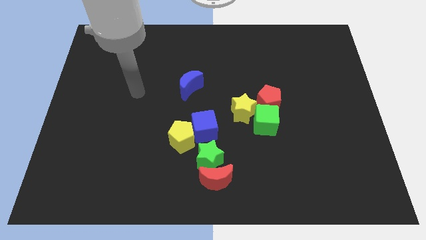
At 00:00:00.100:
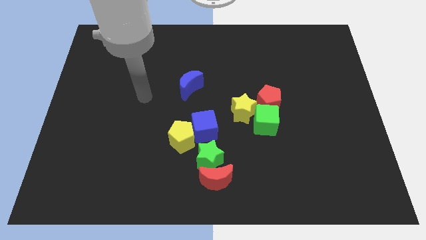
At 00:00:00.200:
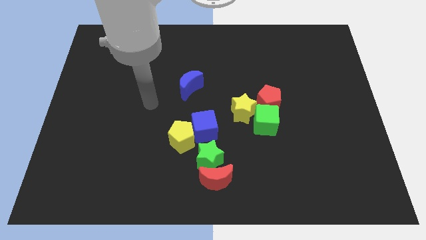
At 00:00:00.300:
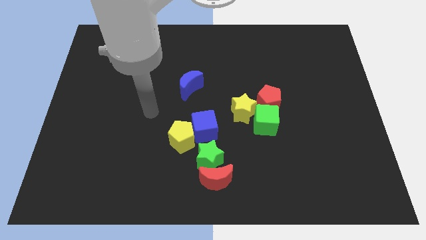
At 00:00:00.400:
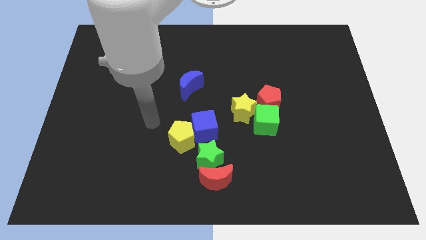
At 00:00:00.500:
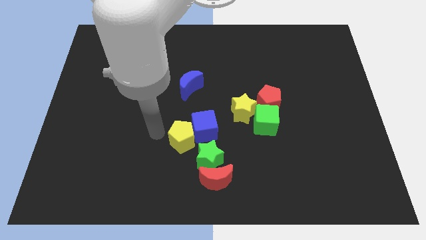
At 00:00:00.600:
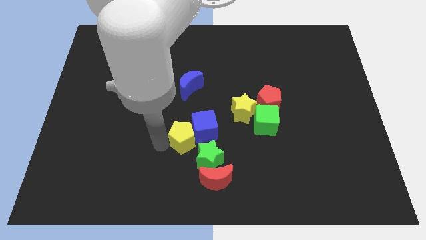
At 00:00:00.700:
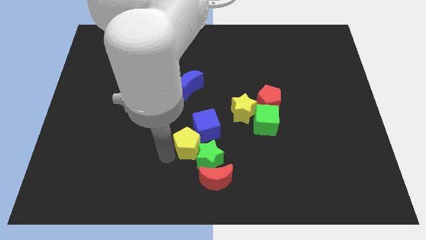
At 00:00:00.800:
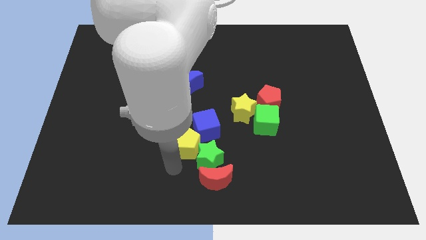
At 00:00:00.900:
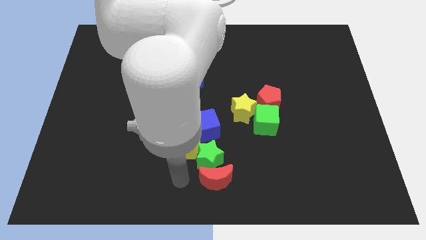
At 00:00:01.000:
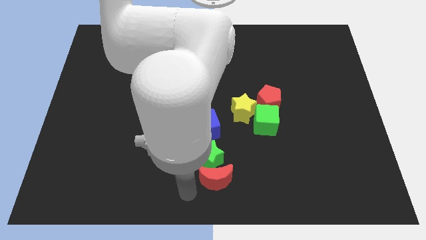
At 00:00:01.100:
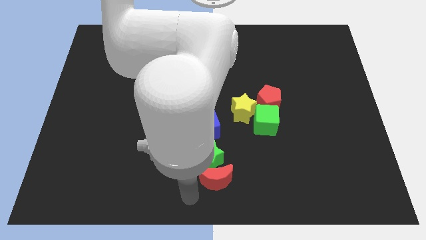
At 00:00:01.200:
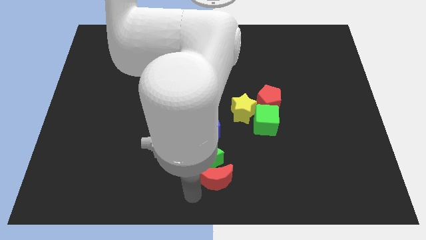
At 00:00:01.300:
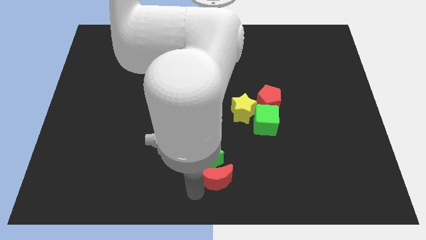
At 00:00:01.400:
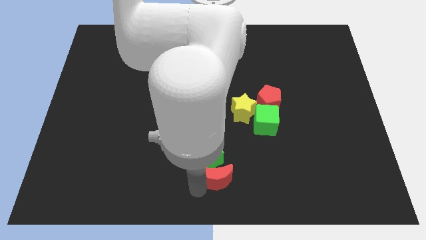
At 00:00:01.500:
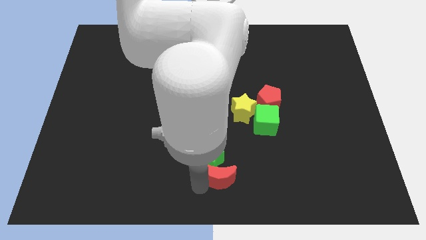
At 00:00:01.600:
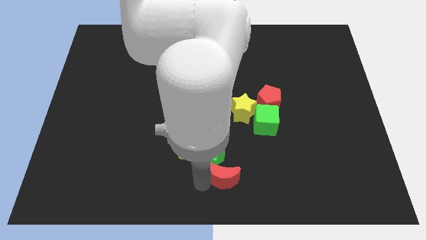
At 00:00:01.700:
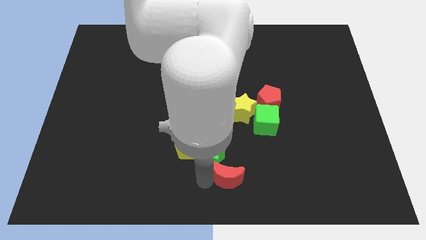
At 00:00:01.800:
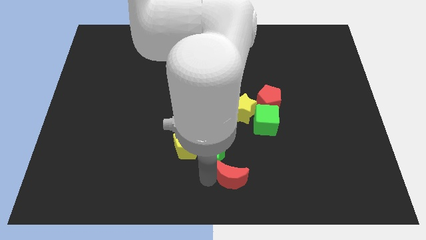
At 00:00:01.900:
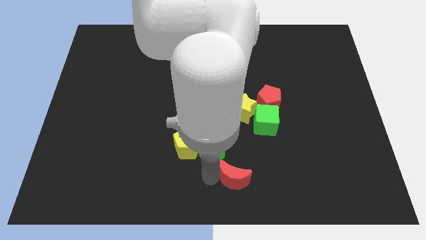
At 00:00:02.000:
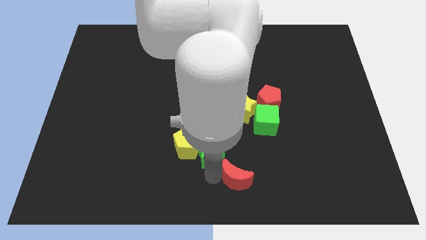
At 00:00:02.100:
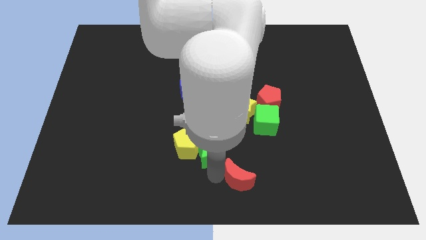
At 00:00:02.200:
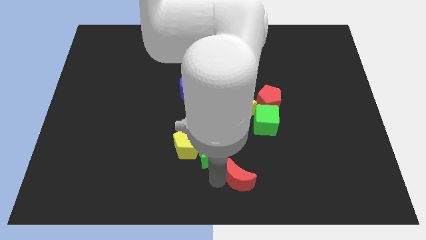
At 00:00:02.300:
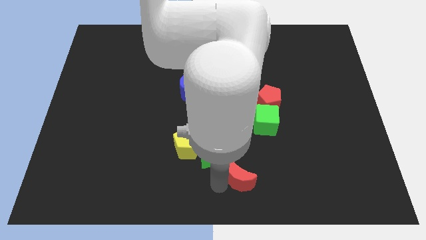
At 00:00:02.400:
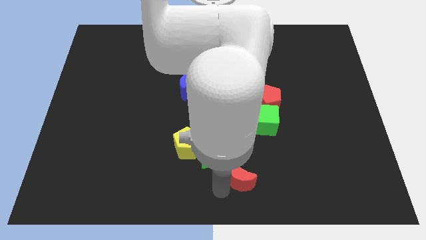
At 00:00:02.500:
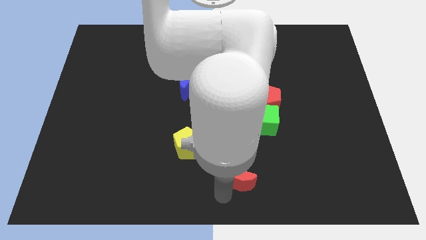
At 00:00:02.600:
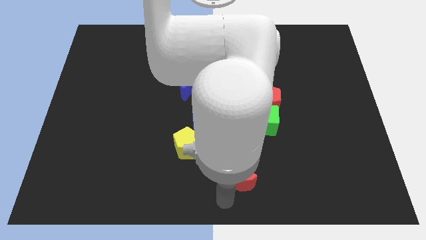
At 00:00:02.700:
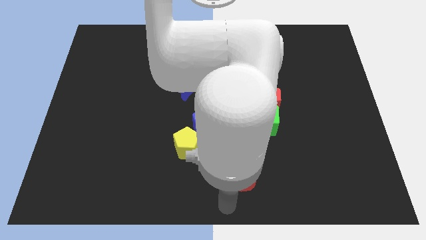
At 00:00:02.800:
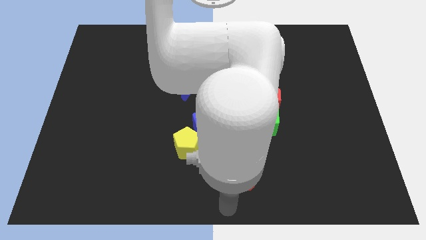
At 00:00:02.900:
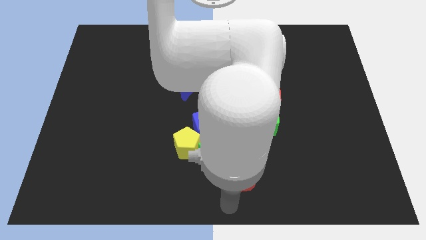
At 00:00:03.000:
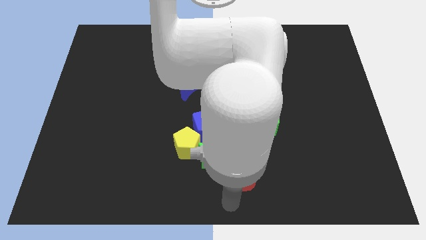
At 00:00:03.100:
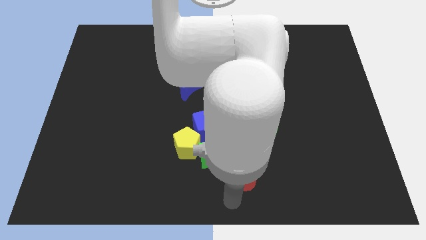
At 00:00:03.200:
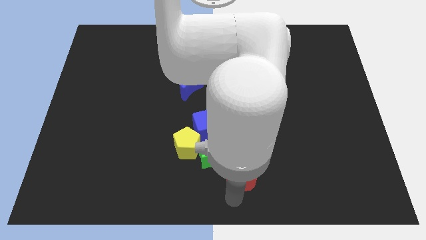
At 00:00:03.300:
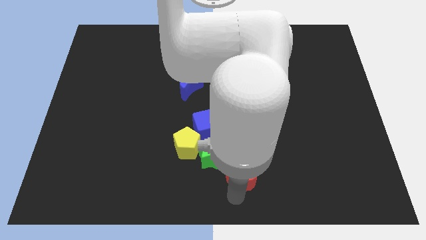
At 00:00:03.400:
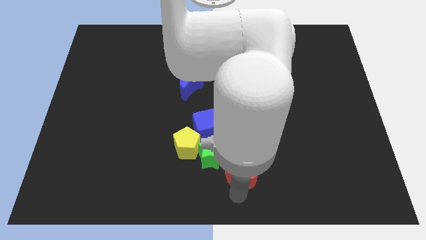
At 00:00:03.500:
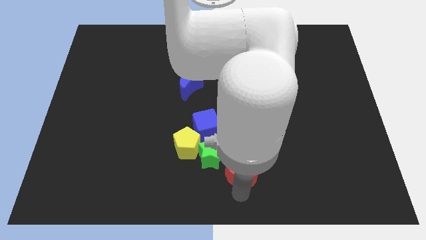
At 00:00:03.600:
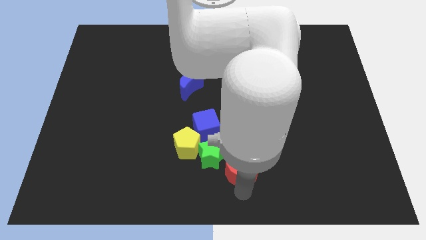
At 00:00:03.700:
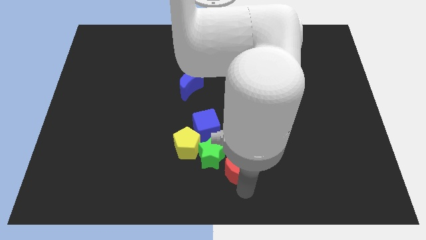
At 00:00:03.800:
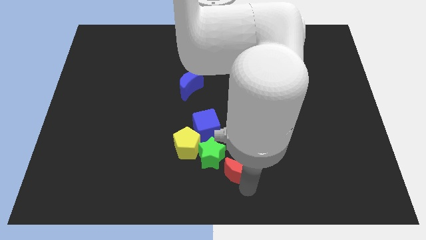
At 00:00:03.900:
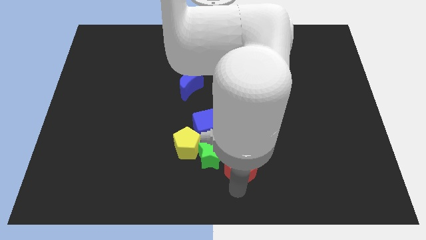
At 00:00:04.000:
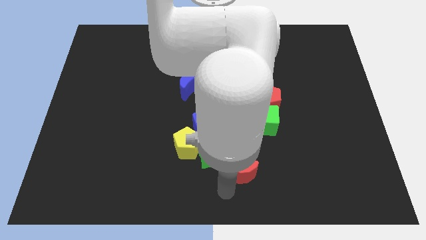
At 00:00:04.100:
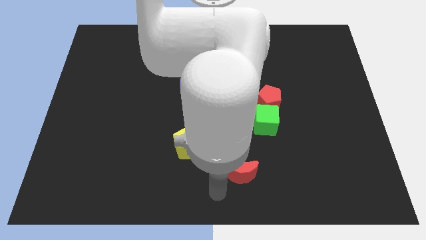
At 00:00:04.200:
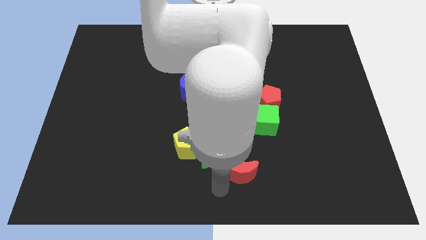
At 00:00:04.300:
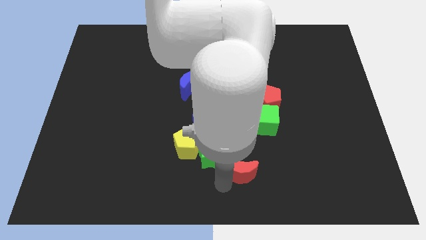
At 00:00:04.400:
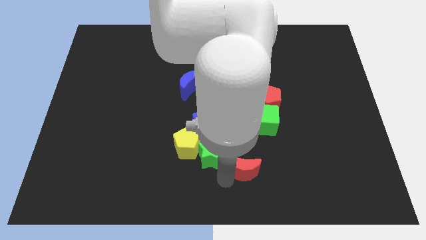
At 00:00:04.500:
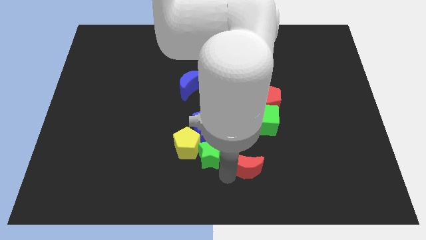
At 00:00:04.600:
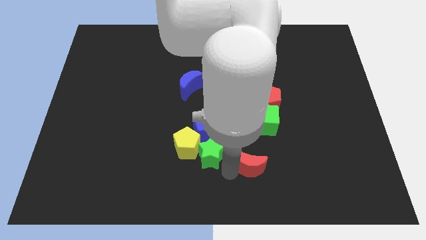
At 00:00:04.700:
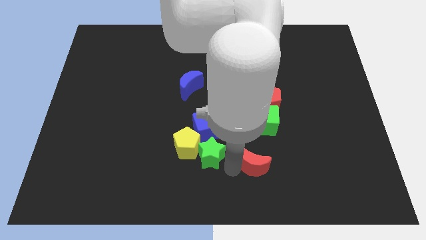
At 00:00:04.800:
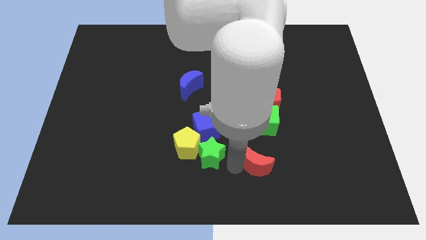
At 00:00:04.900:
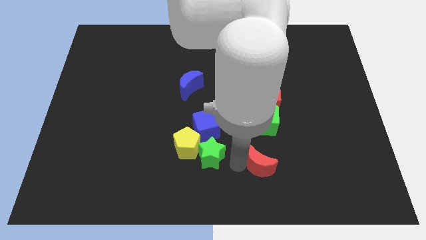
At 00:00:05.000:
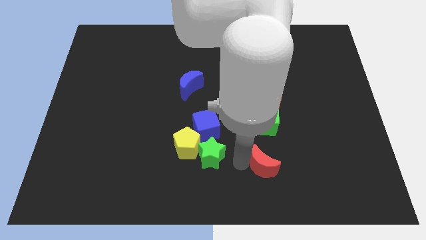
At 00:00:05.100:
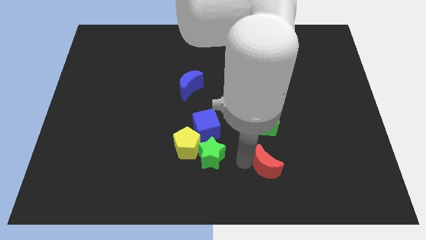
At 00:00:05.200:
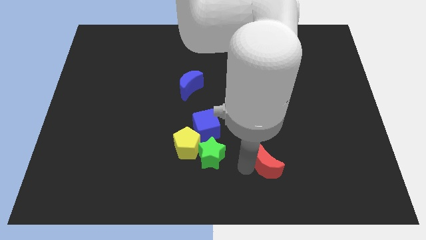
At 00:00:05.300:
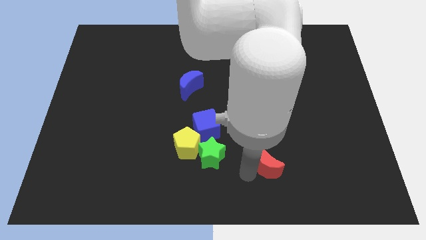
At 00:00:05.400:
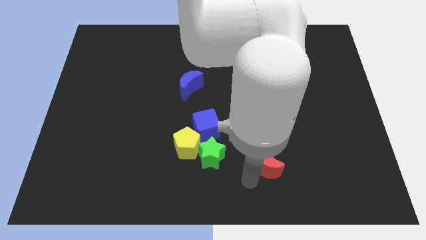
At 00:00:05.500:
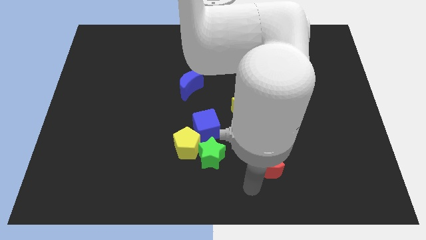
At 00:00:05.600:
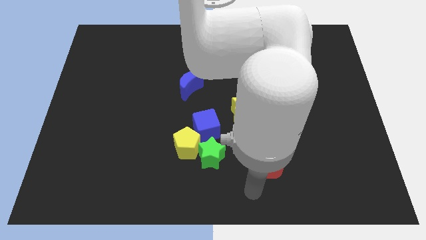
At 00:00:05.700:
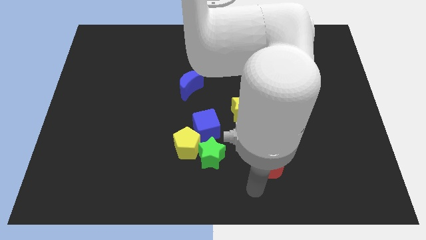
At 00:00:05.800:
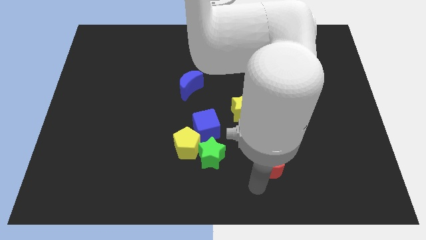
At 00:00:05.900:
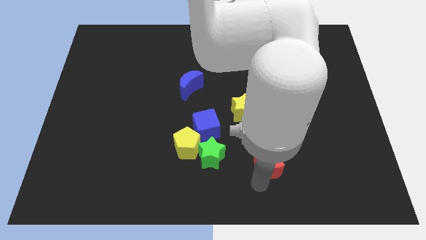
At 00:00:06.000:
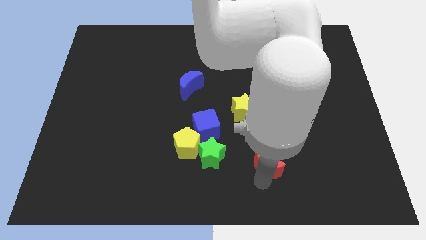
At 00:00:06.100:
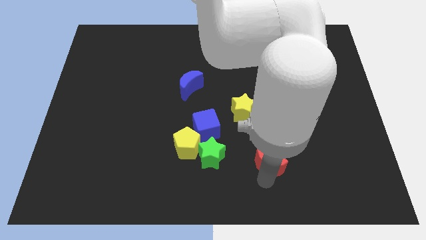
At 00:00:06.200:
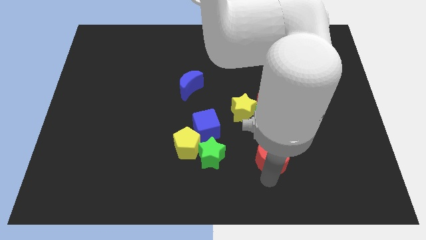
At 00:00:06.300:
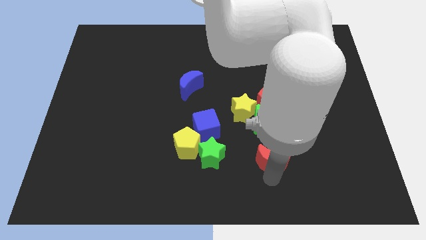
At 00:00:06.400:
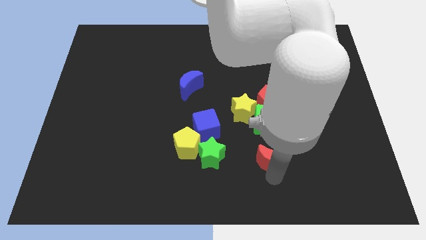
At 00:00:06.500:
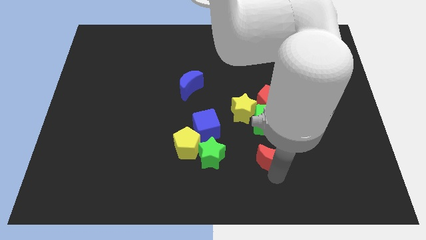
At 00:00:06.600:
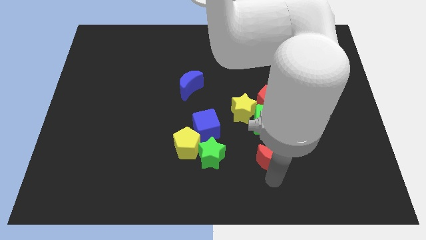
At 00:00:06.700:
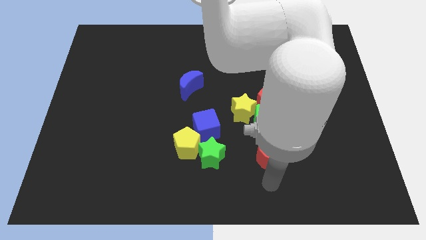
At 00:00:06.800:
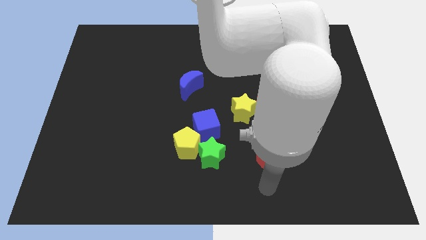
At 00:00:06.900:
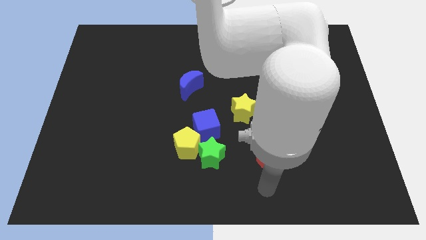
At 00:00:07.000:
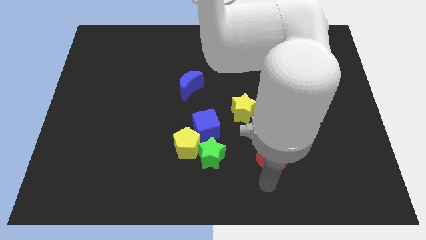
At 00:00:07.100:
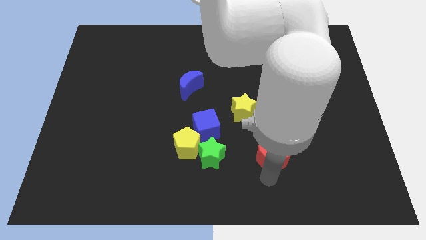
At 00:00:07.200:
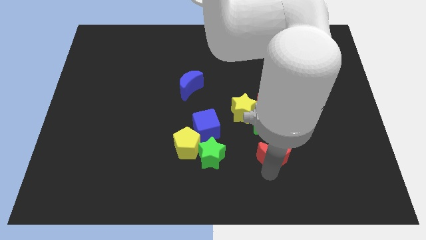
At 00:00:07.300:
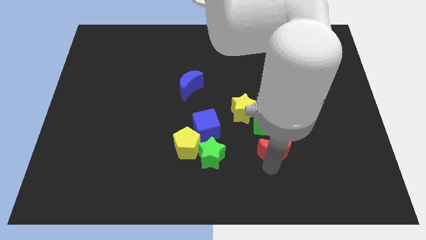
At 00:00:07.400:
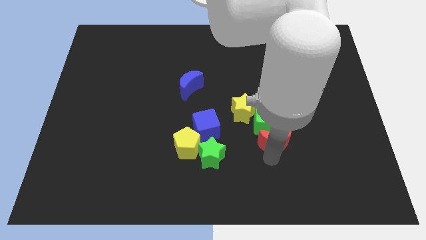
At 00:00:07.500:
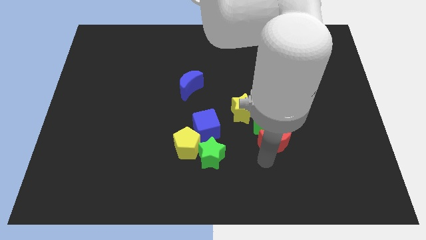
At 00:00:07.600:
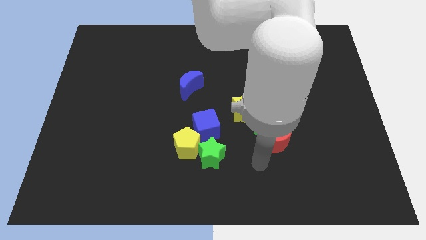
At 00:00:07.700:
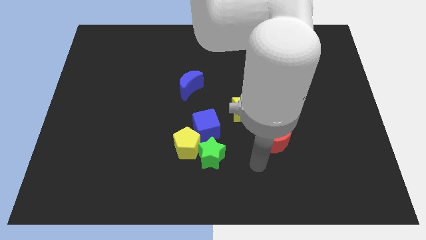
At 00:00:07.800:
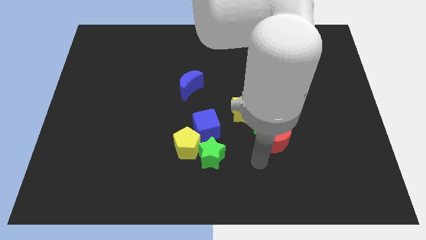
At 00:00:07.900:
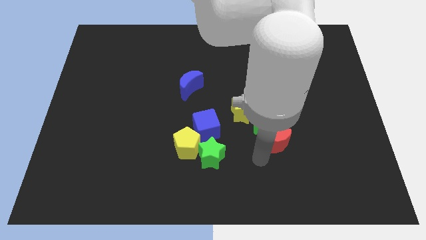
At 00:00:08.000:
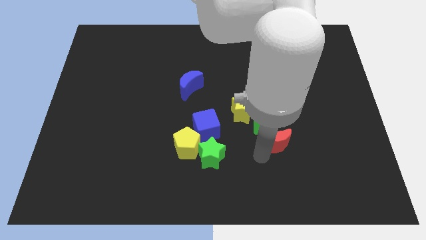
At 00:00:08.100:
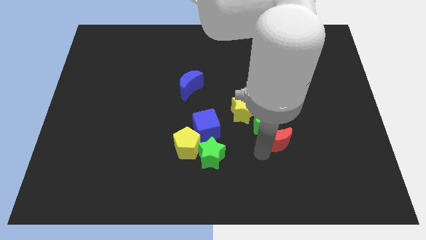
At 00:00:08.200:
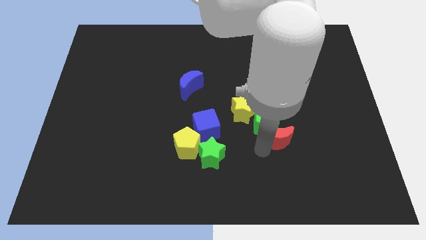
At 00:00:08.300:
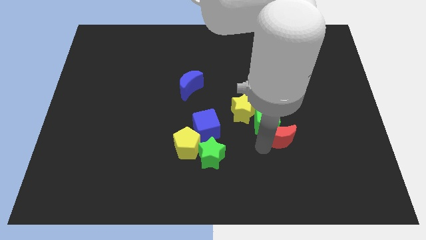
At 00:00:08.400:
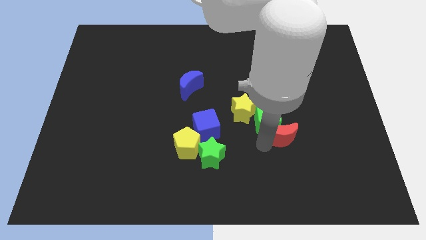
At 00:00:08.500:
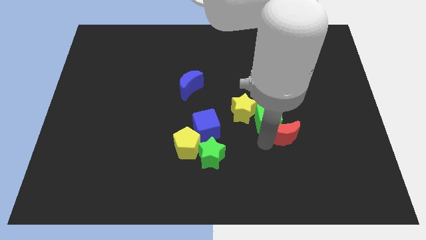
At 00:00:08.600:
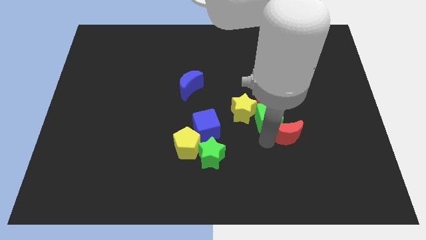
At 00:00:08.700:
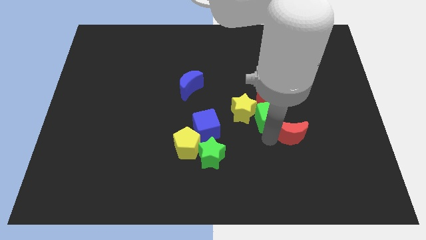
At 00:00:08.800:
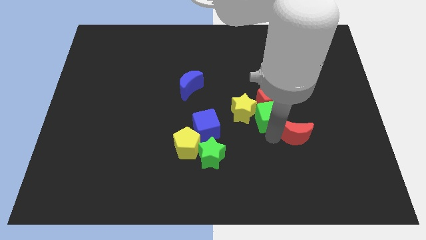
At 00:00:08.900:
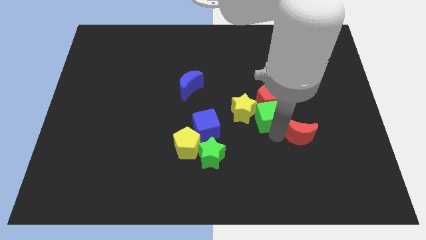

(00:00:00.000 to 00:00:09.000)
slide the red moon up and to the right diagonally
